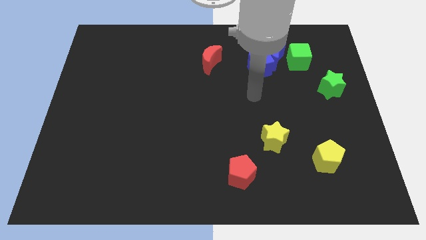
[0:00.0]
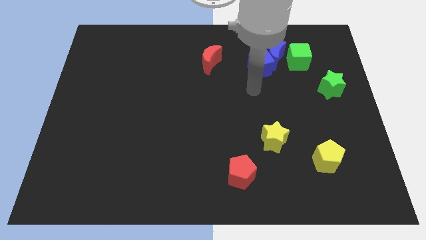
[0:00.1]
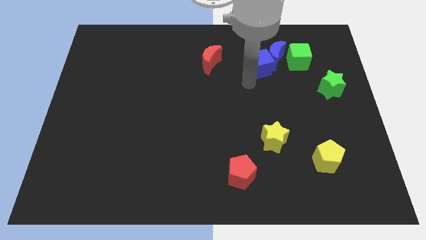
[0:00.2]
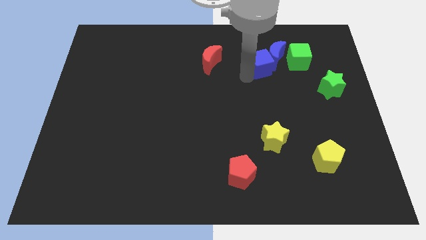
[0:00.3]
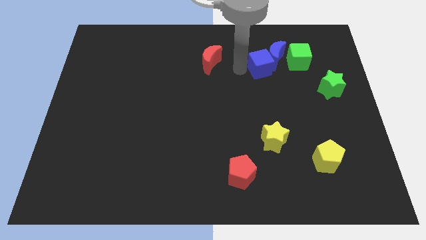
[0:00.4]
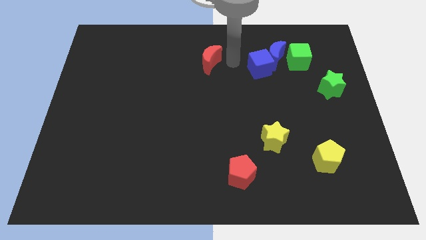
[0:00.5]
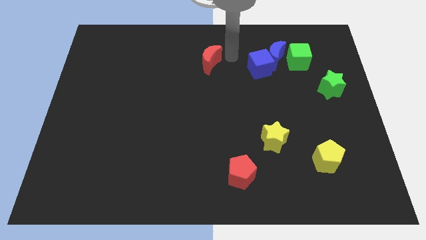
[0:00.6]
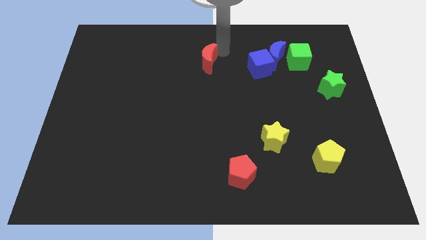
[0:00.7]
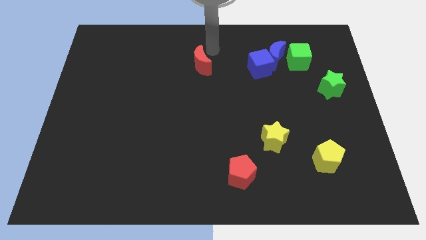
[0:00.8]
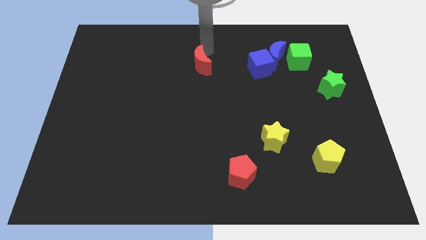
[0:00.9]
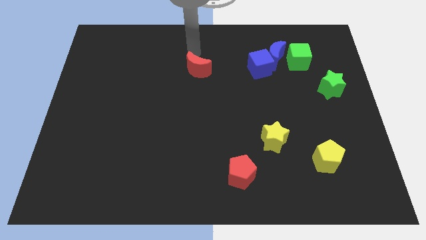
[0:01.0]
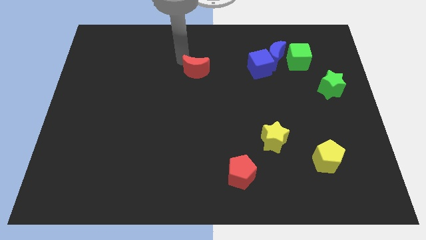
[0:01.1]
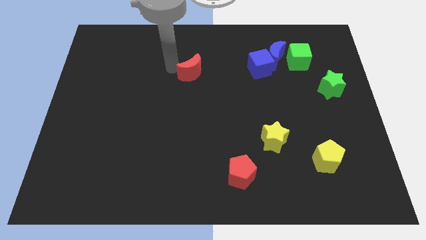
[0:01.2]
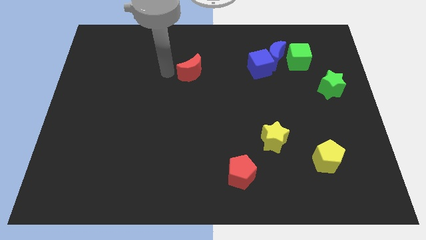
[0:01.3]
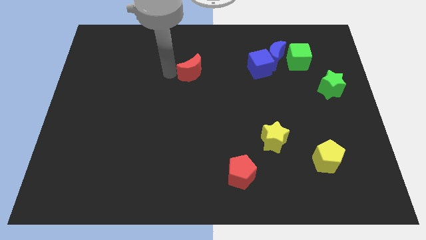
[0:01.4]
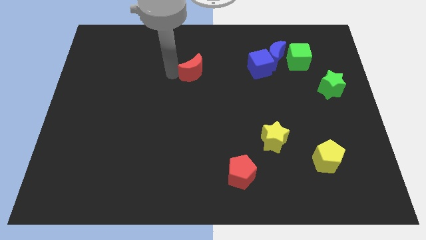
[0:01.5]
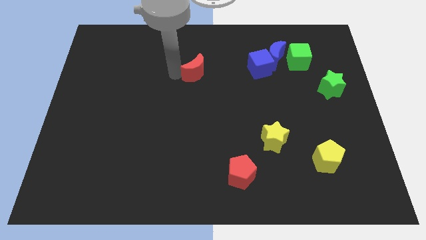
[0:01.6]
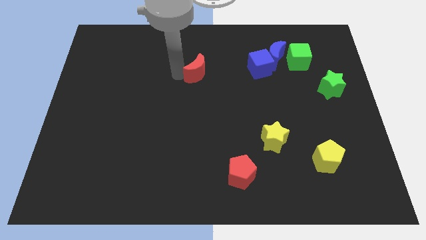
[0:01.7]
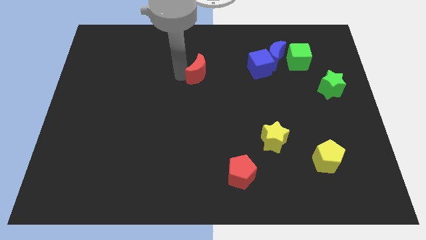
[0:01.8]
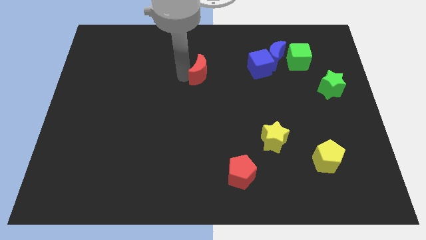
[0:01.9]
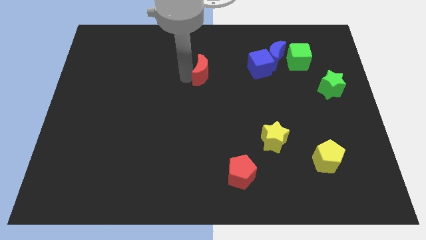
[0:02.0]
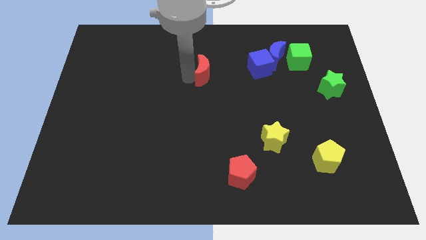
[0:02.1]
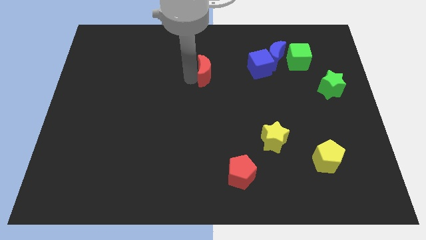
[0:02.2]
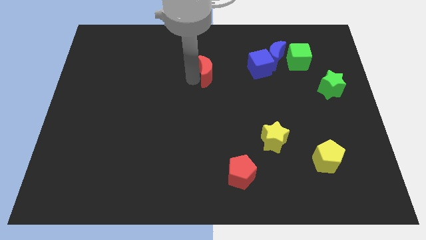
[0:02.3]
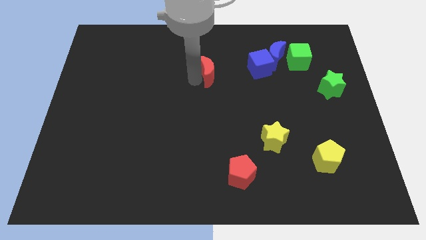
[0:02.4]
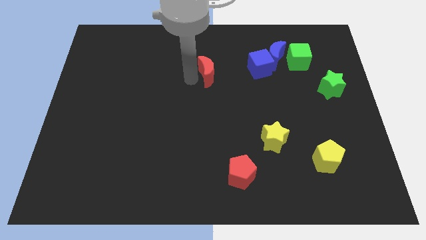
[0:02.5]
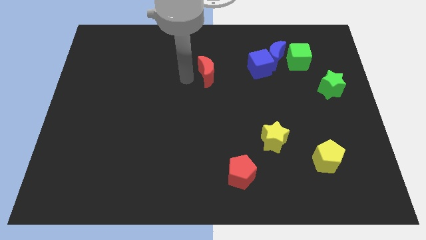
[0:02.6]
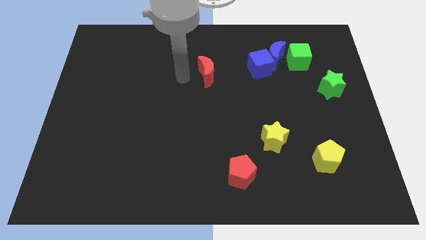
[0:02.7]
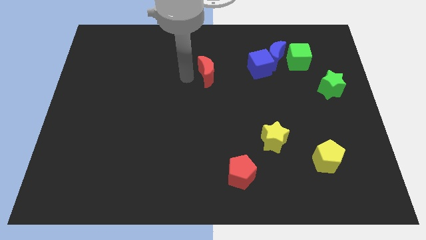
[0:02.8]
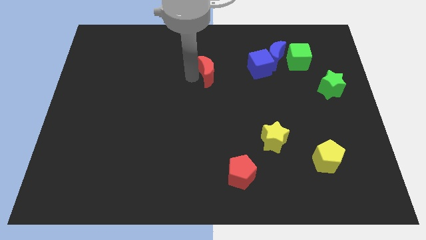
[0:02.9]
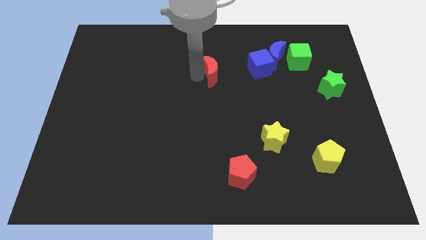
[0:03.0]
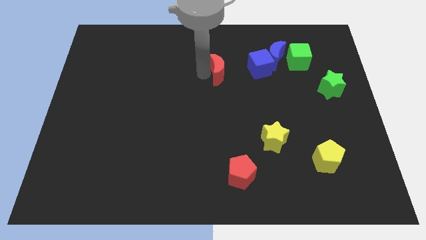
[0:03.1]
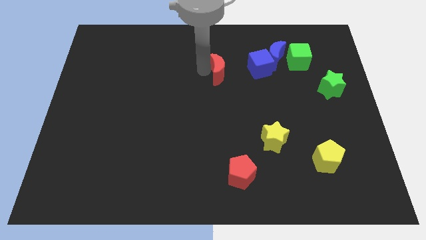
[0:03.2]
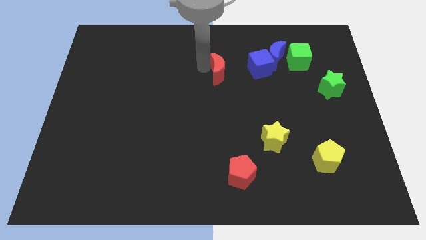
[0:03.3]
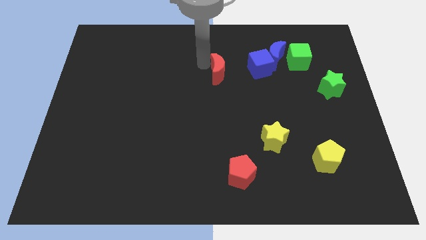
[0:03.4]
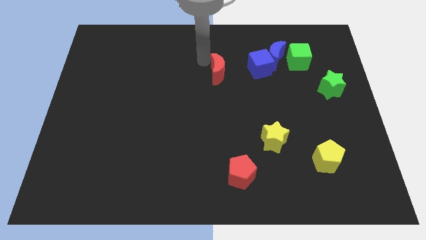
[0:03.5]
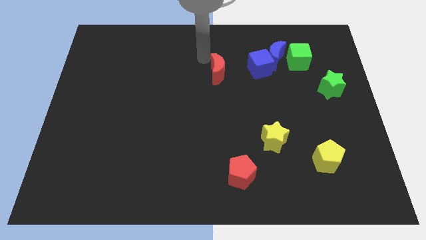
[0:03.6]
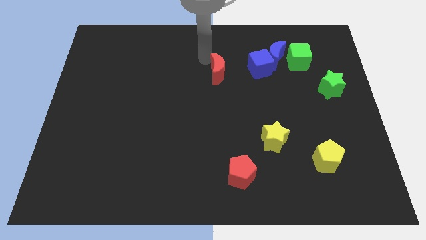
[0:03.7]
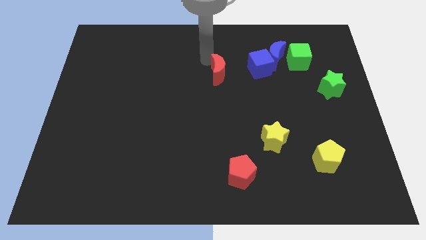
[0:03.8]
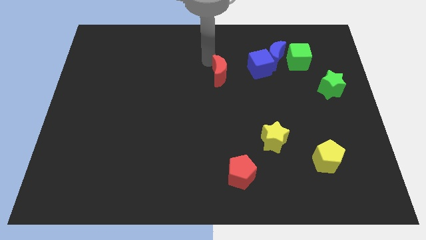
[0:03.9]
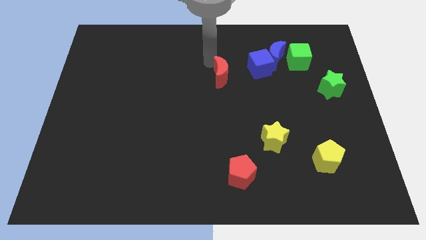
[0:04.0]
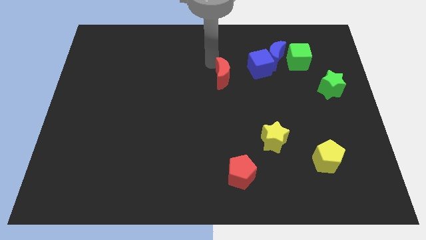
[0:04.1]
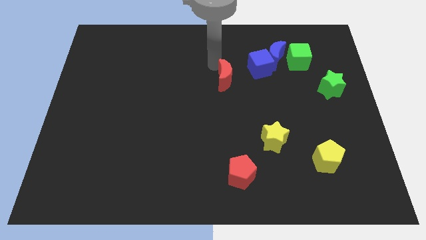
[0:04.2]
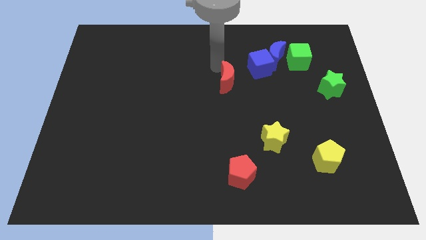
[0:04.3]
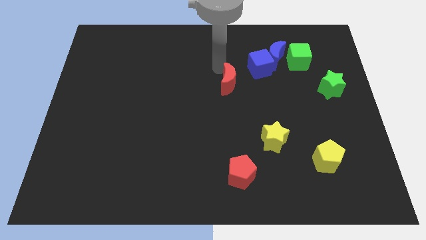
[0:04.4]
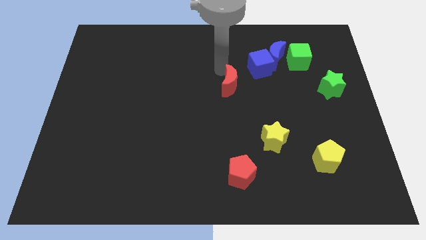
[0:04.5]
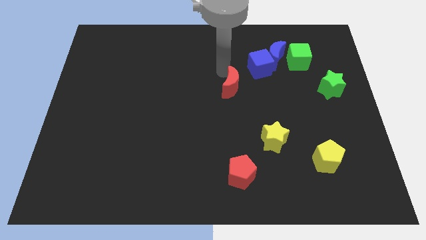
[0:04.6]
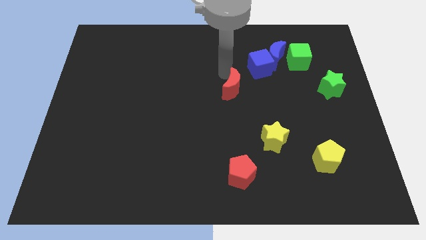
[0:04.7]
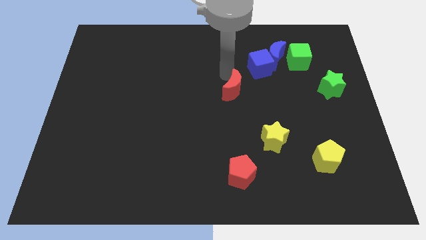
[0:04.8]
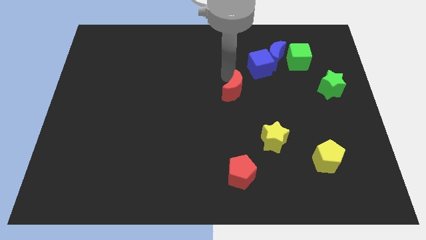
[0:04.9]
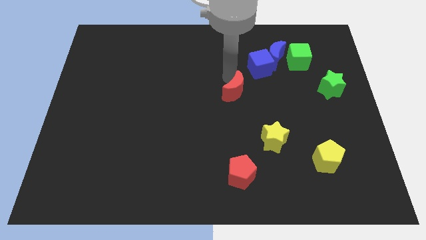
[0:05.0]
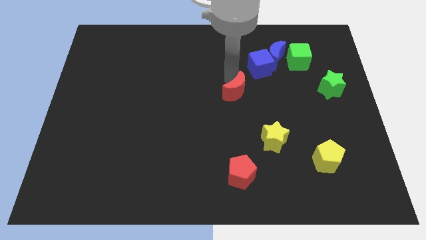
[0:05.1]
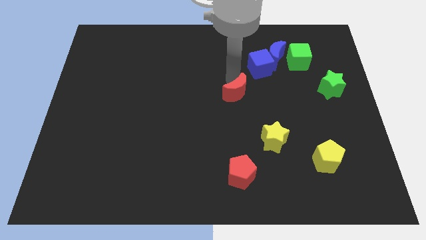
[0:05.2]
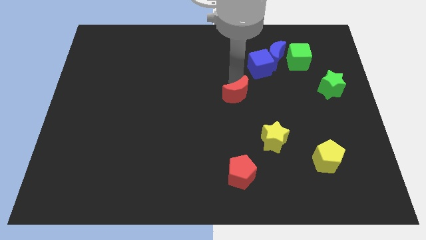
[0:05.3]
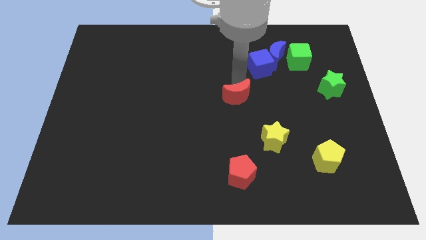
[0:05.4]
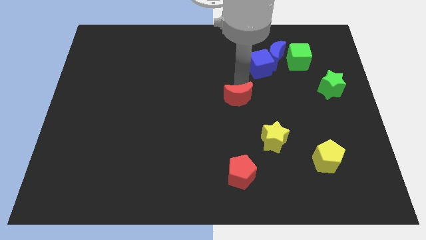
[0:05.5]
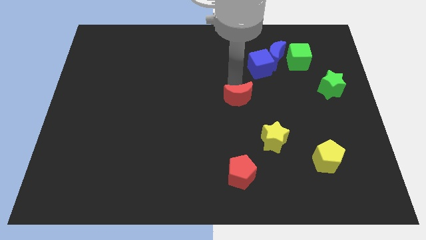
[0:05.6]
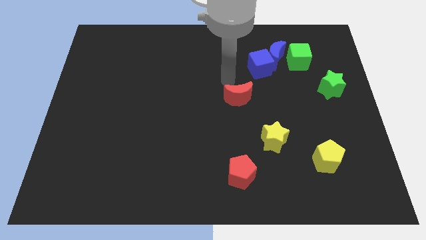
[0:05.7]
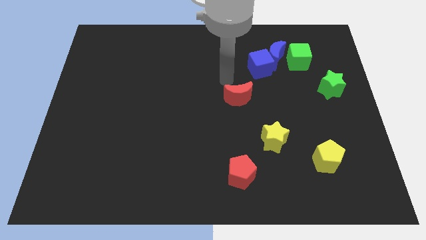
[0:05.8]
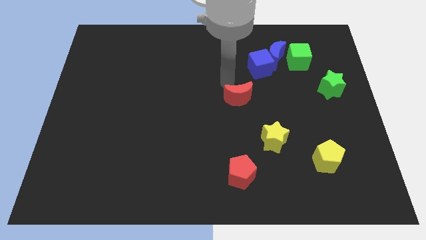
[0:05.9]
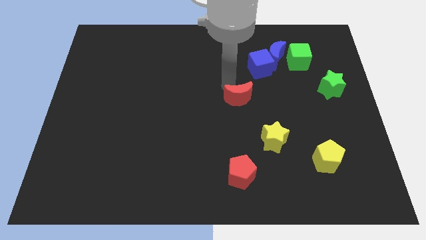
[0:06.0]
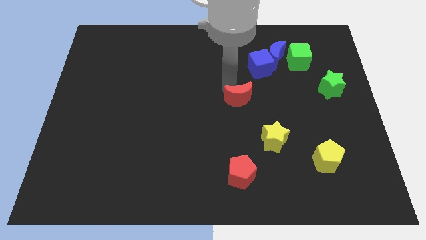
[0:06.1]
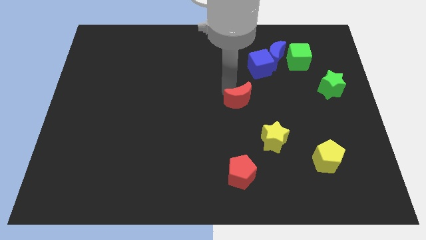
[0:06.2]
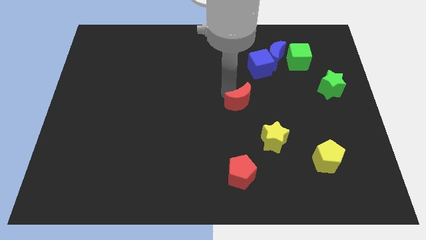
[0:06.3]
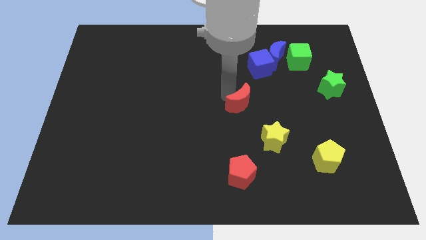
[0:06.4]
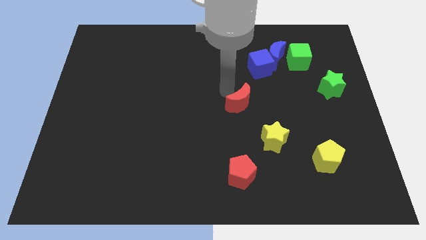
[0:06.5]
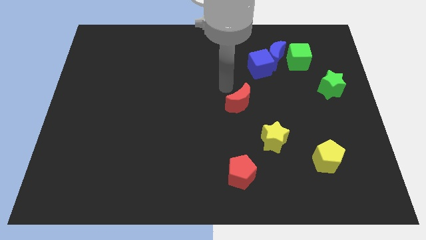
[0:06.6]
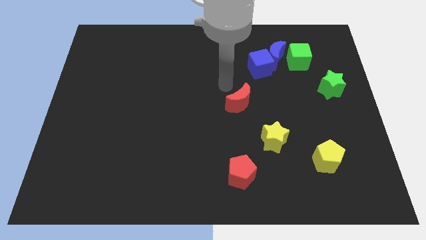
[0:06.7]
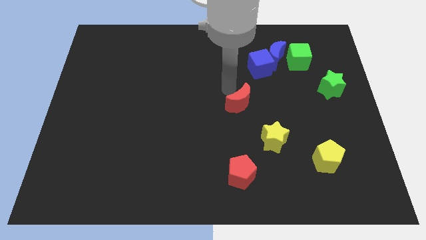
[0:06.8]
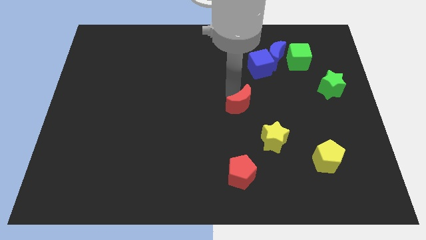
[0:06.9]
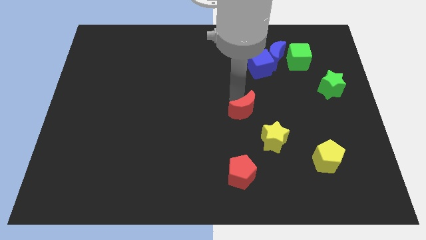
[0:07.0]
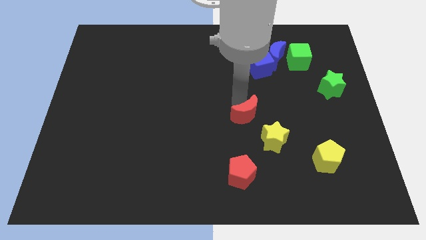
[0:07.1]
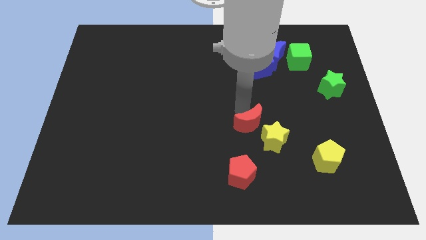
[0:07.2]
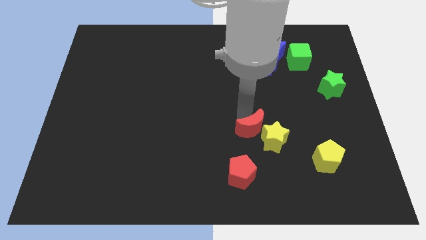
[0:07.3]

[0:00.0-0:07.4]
push the red moon towards the yellow star
